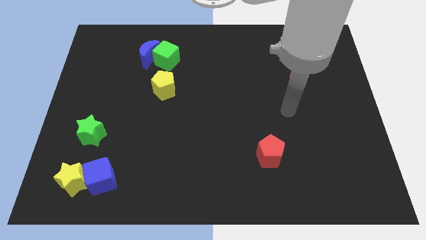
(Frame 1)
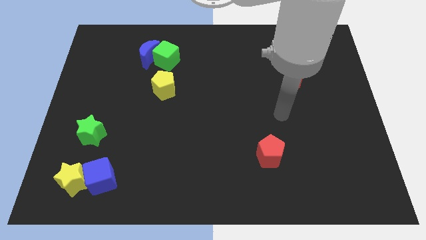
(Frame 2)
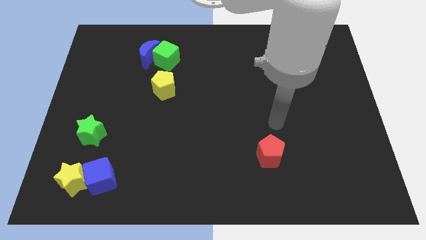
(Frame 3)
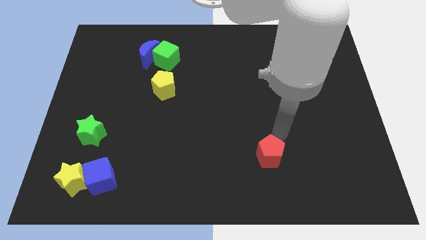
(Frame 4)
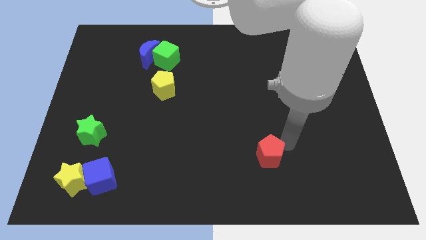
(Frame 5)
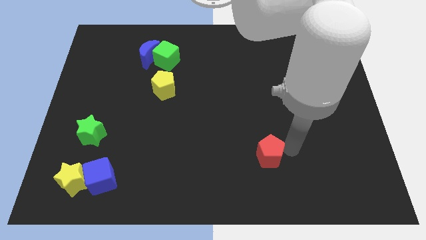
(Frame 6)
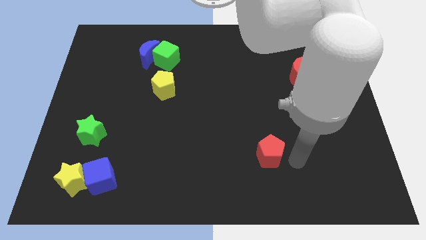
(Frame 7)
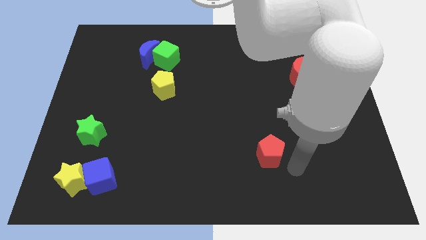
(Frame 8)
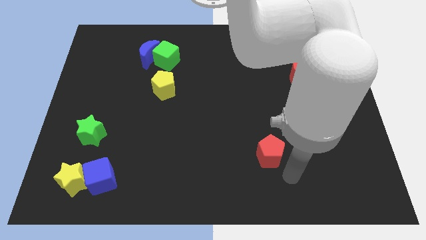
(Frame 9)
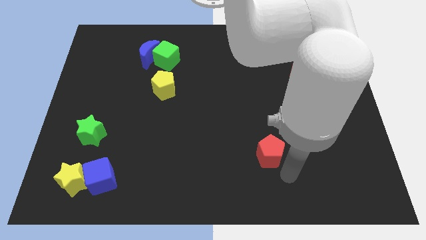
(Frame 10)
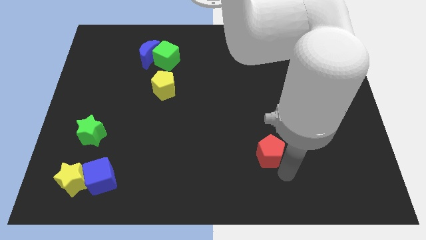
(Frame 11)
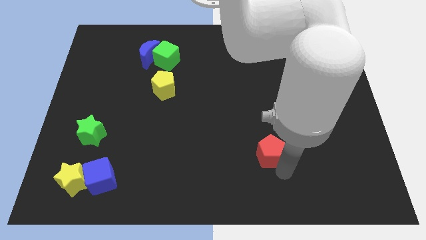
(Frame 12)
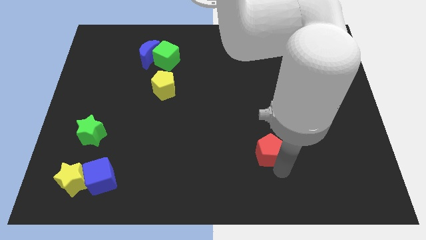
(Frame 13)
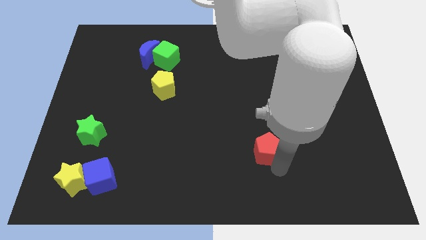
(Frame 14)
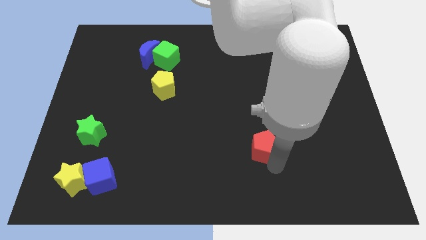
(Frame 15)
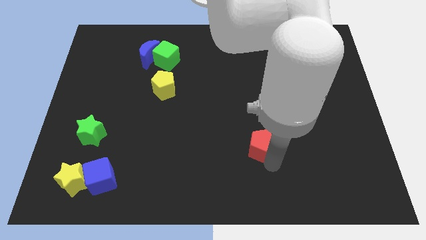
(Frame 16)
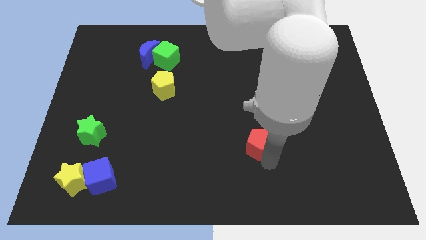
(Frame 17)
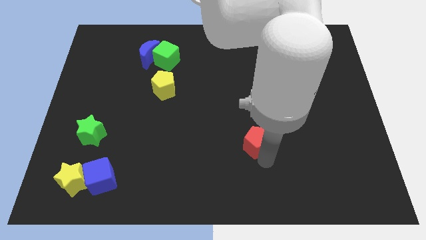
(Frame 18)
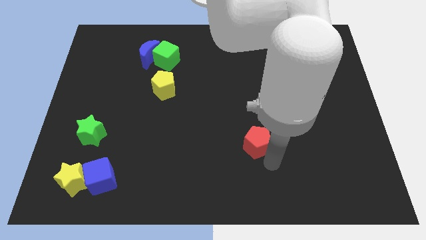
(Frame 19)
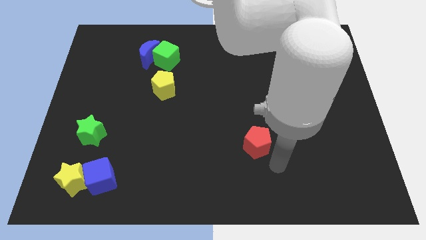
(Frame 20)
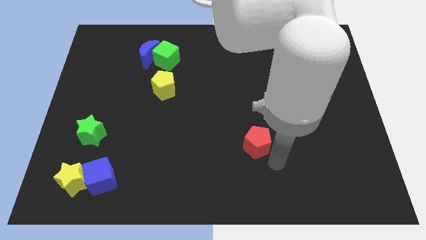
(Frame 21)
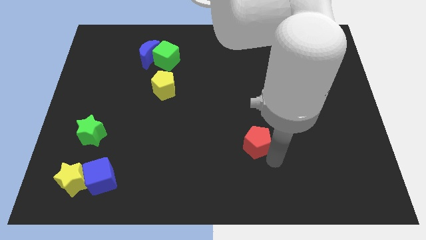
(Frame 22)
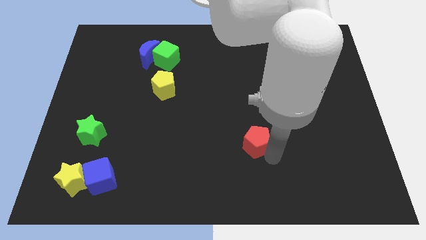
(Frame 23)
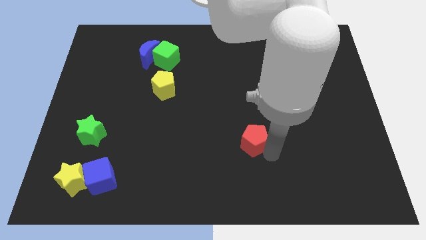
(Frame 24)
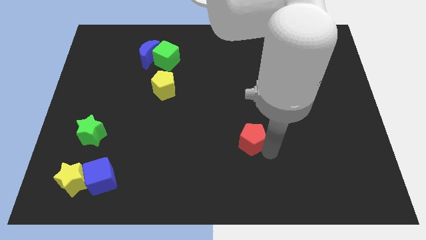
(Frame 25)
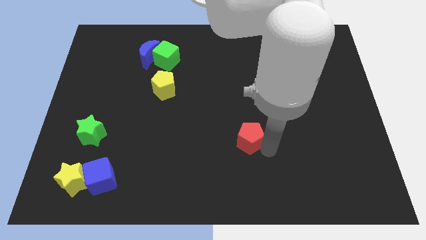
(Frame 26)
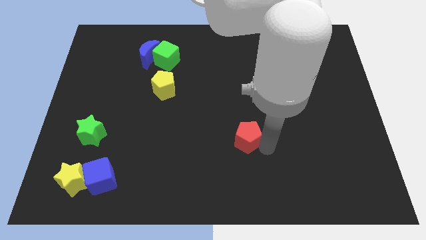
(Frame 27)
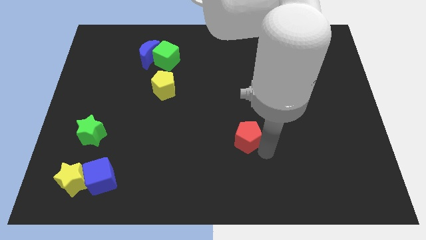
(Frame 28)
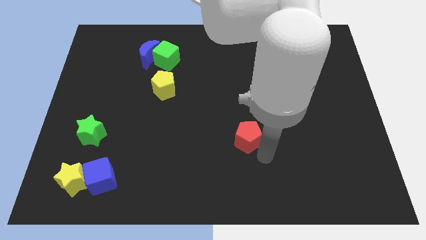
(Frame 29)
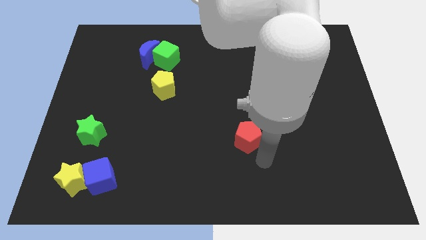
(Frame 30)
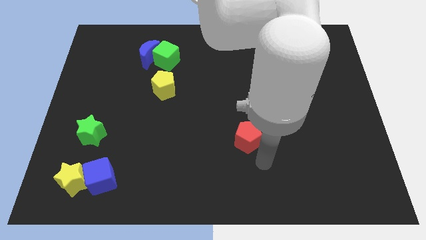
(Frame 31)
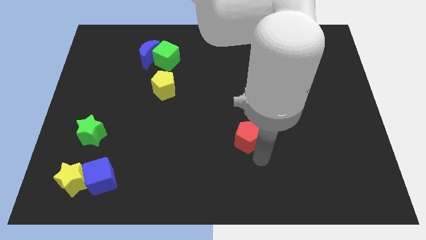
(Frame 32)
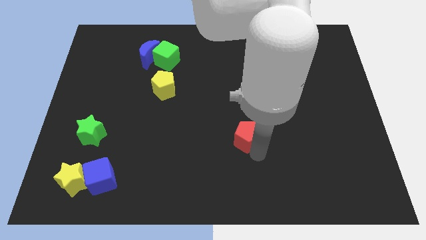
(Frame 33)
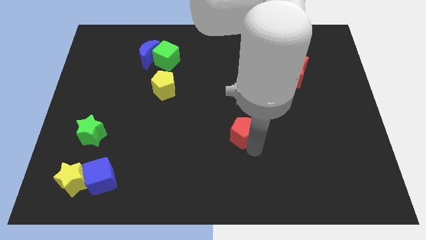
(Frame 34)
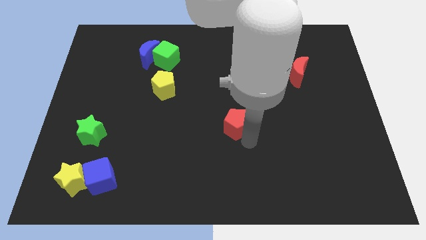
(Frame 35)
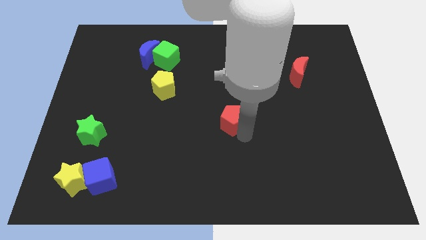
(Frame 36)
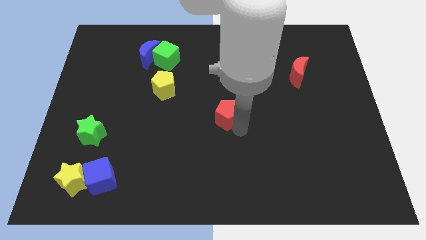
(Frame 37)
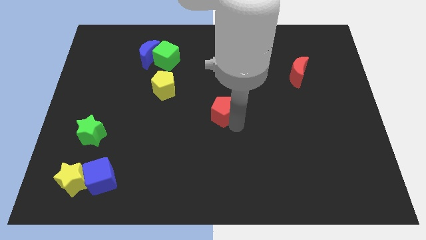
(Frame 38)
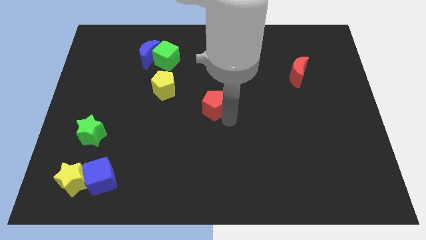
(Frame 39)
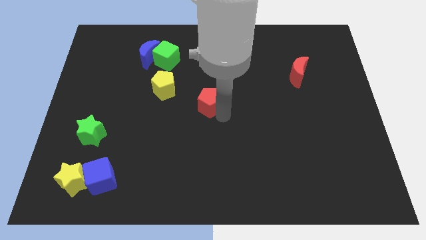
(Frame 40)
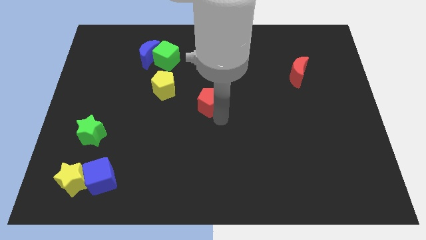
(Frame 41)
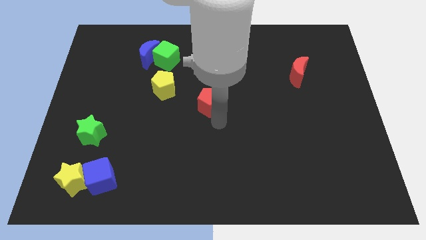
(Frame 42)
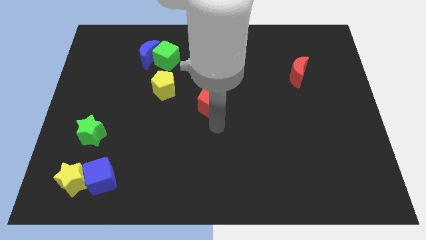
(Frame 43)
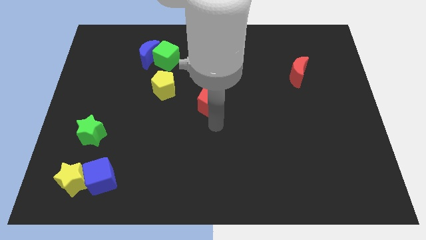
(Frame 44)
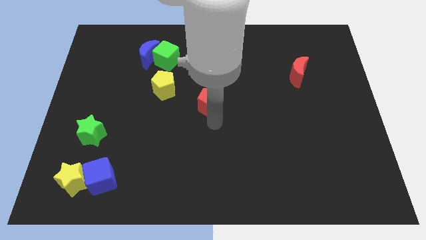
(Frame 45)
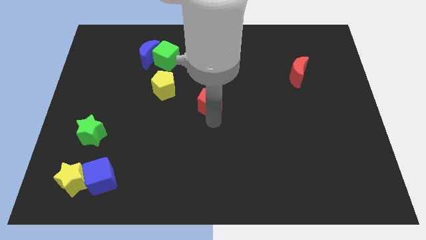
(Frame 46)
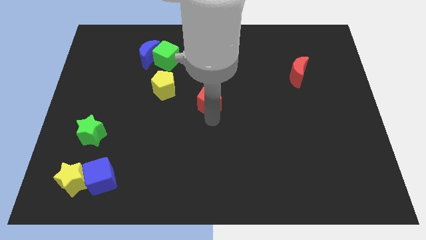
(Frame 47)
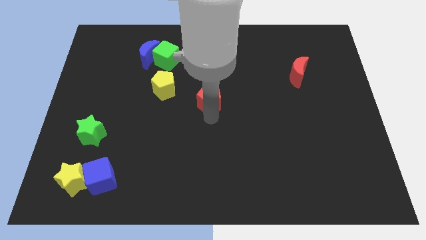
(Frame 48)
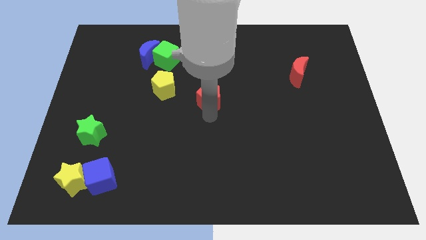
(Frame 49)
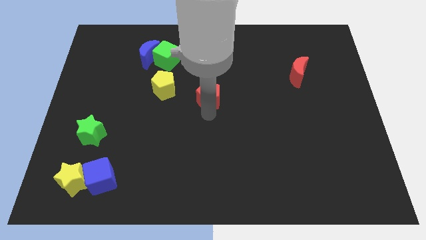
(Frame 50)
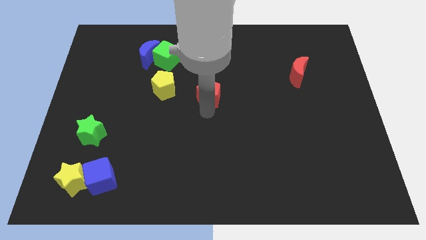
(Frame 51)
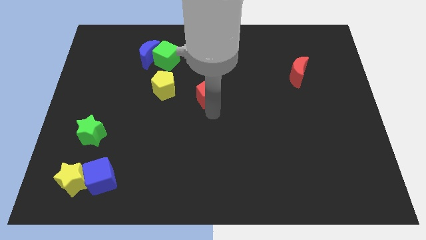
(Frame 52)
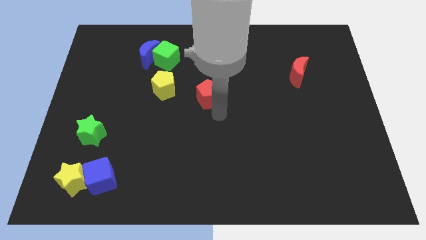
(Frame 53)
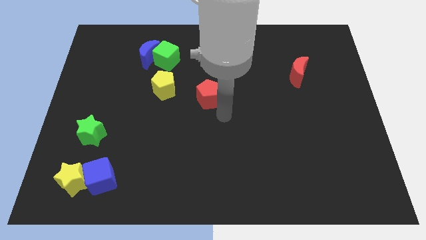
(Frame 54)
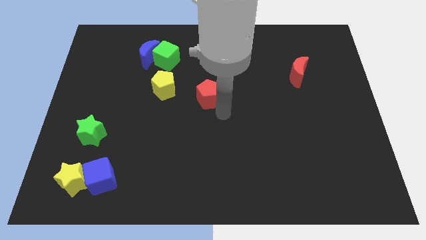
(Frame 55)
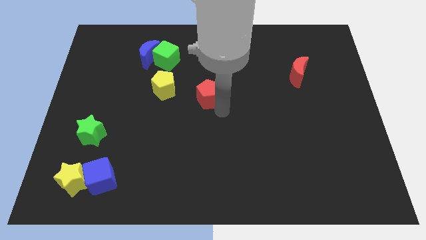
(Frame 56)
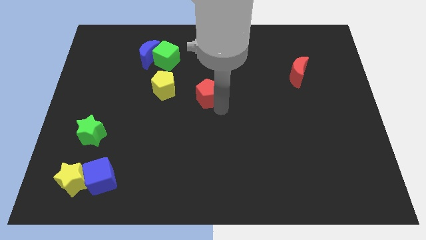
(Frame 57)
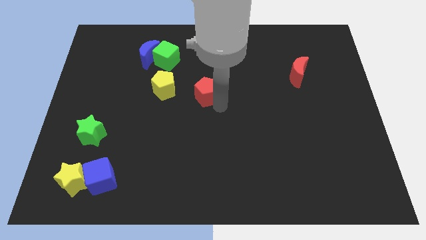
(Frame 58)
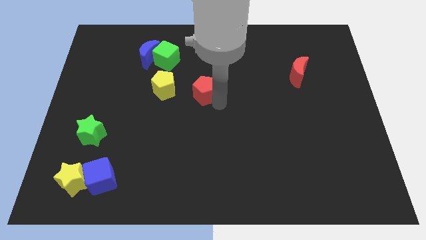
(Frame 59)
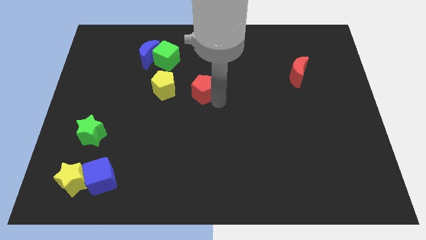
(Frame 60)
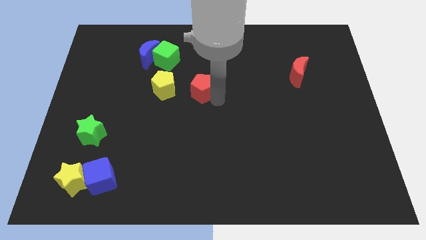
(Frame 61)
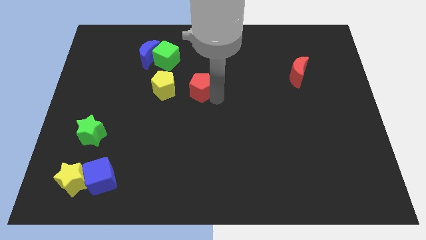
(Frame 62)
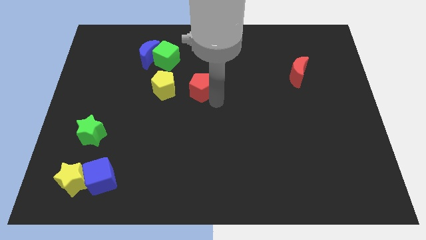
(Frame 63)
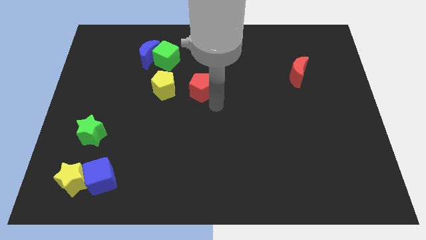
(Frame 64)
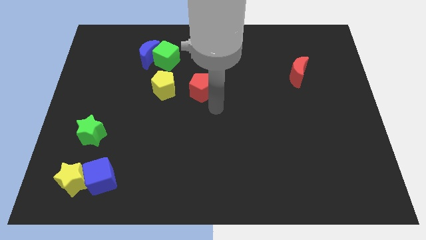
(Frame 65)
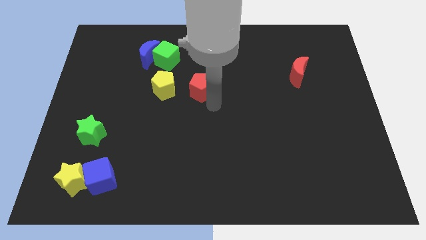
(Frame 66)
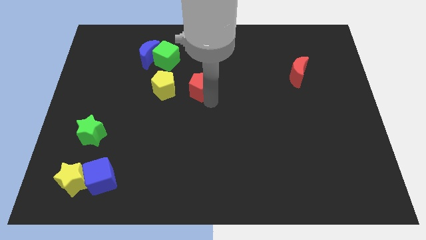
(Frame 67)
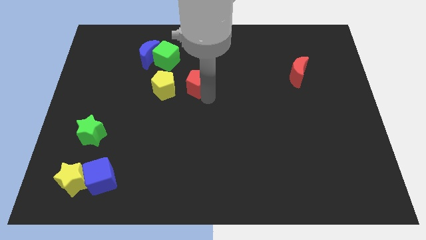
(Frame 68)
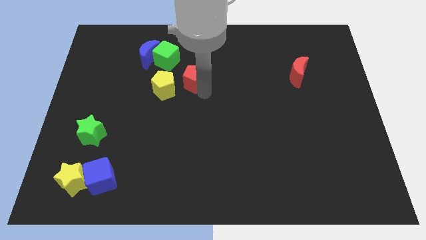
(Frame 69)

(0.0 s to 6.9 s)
push the red pentagon to the top right of the yellow pentagon

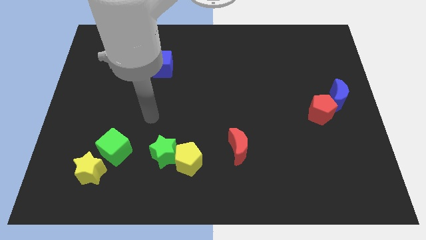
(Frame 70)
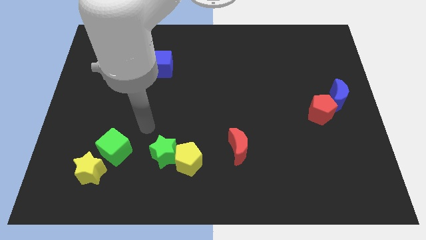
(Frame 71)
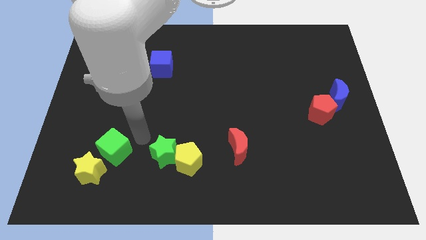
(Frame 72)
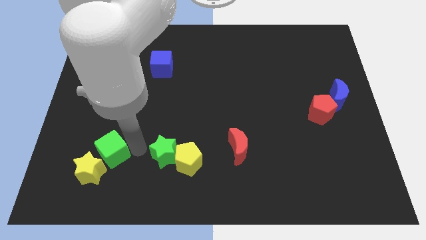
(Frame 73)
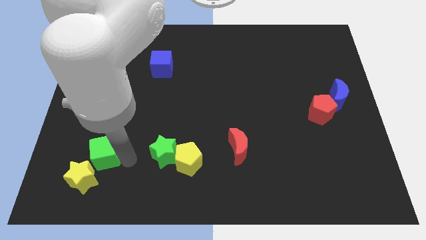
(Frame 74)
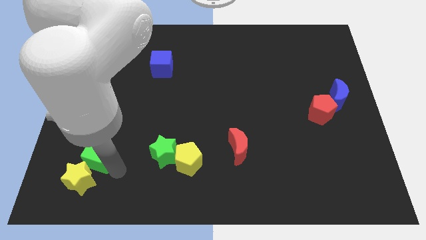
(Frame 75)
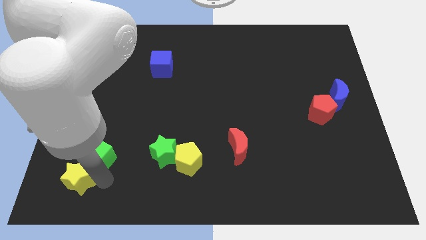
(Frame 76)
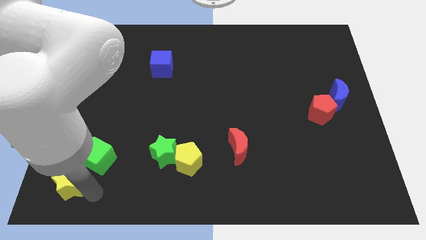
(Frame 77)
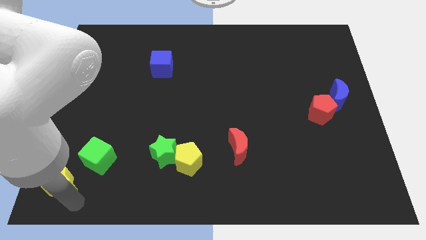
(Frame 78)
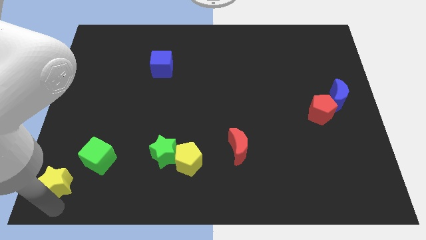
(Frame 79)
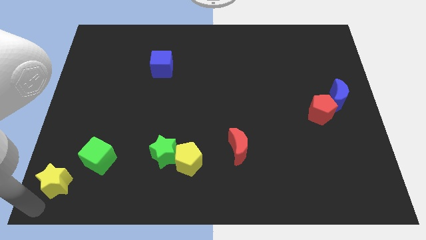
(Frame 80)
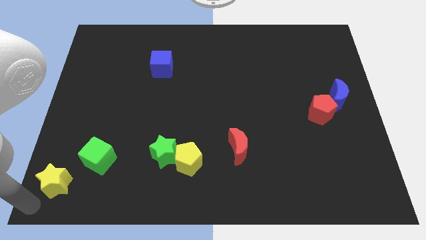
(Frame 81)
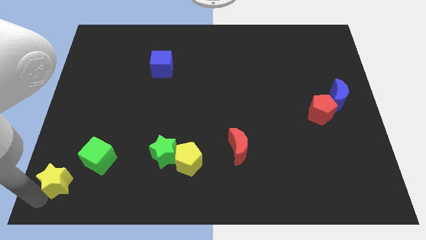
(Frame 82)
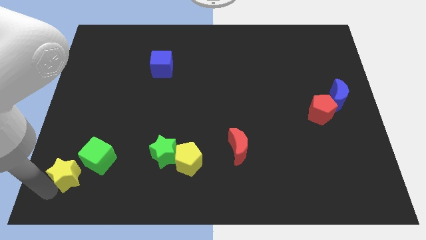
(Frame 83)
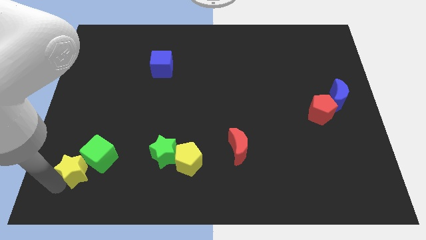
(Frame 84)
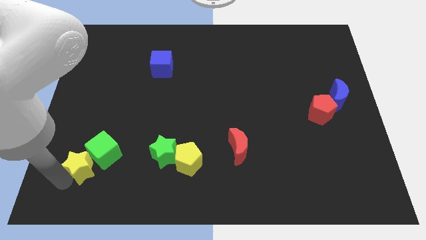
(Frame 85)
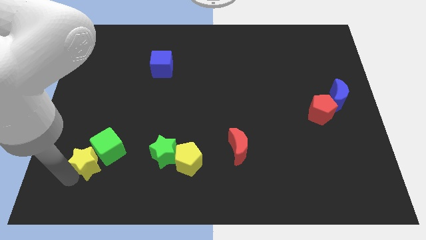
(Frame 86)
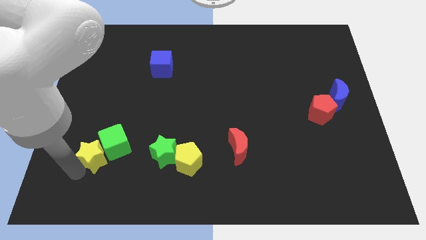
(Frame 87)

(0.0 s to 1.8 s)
put the yellow star left of the green star
